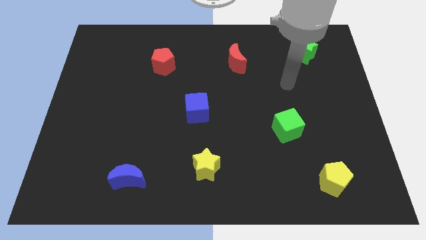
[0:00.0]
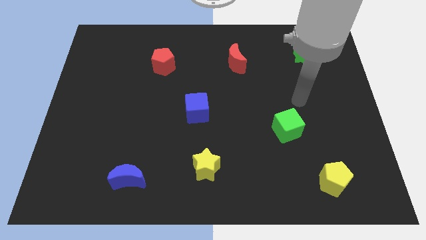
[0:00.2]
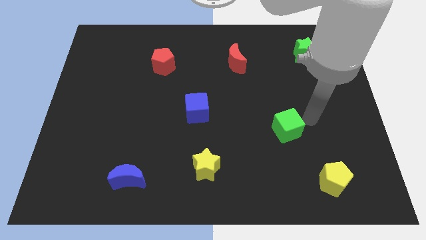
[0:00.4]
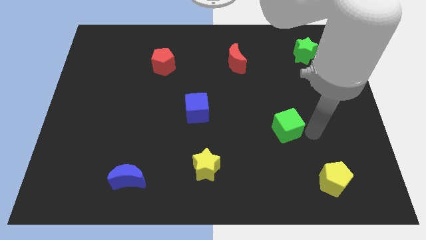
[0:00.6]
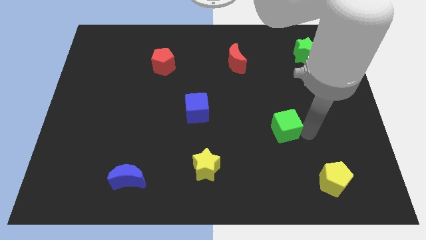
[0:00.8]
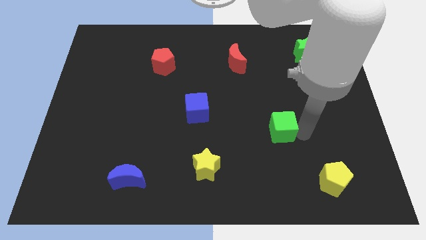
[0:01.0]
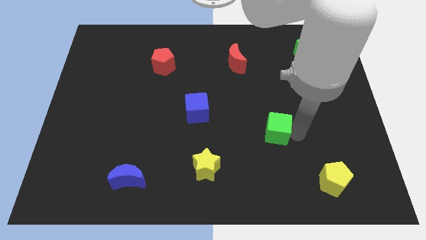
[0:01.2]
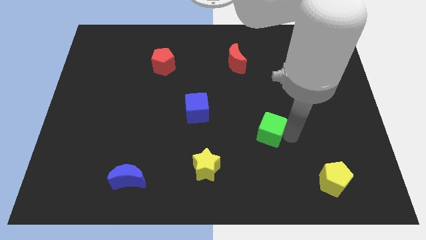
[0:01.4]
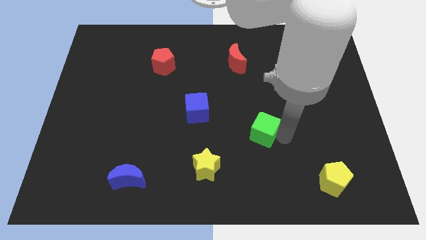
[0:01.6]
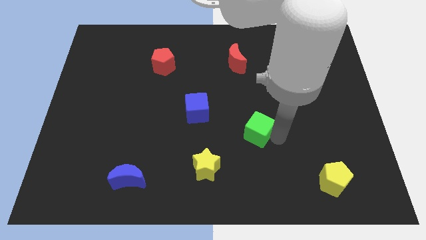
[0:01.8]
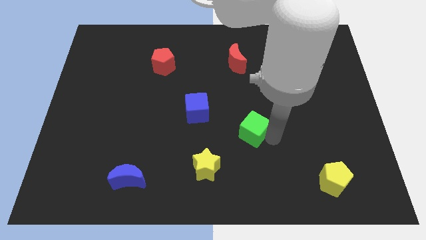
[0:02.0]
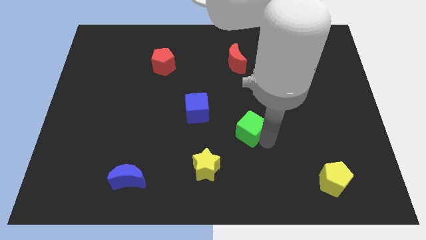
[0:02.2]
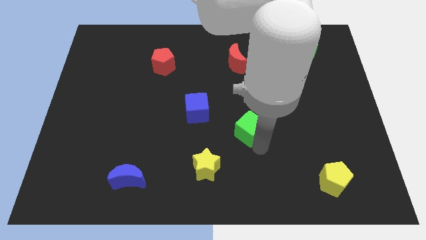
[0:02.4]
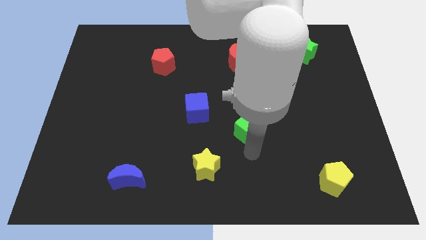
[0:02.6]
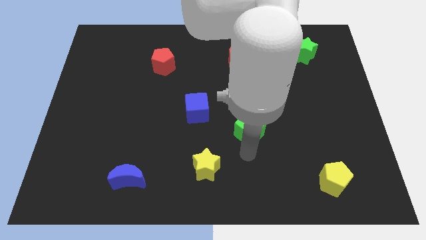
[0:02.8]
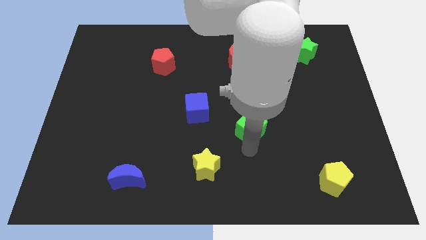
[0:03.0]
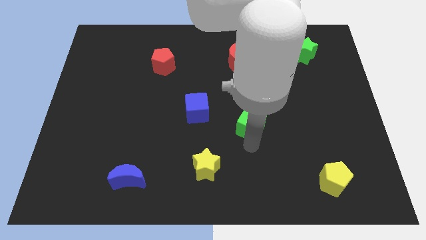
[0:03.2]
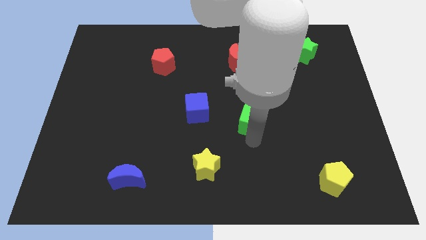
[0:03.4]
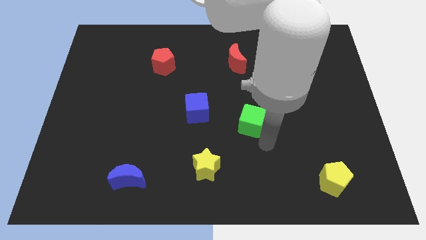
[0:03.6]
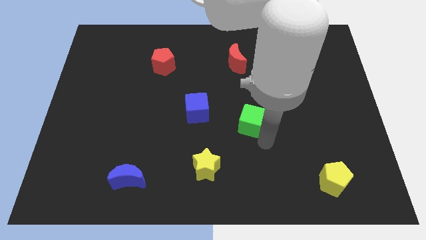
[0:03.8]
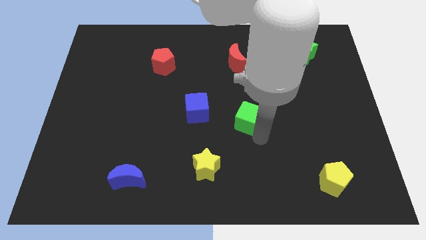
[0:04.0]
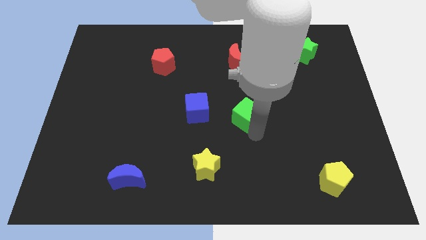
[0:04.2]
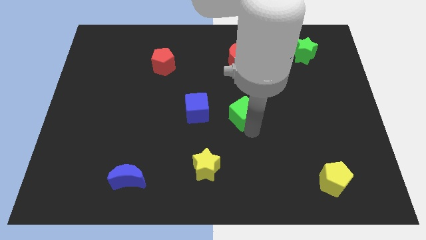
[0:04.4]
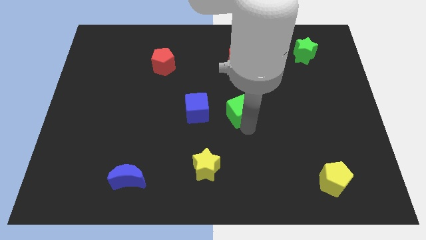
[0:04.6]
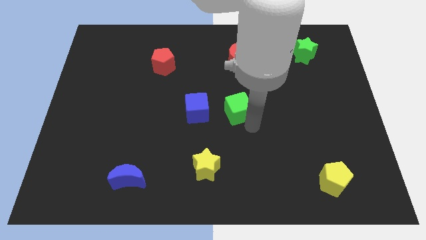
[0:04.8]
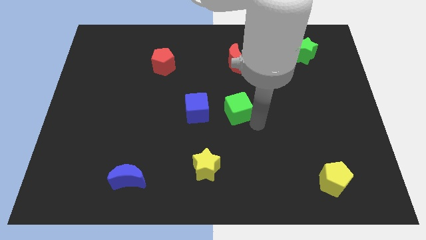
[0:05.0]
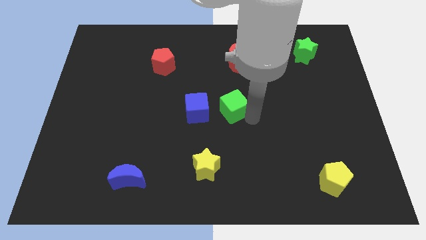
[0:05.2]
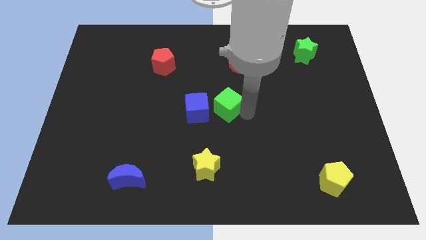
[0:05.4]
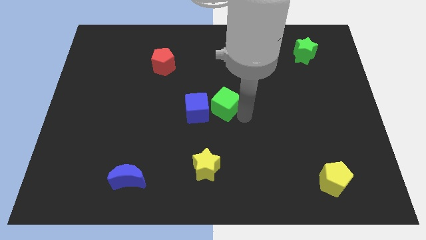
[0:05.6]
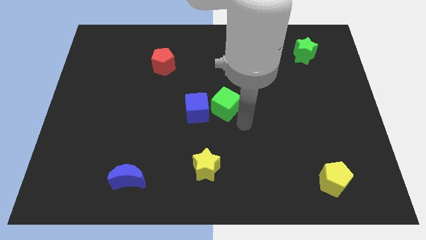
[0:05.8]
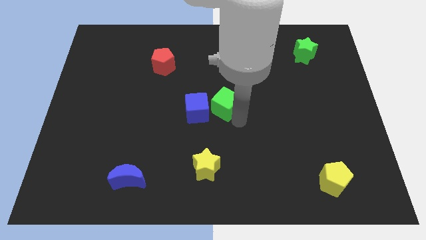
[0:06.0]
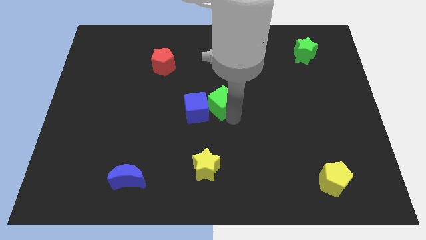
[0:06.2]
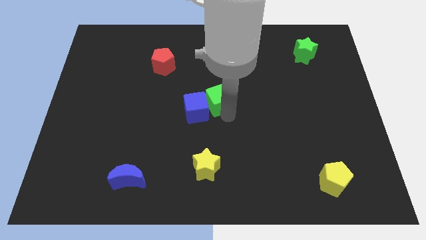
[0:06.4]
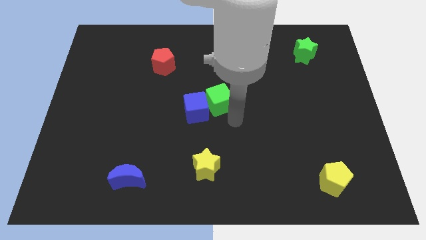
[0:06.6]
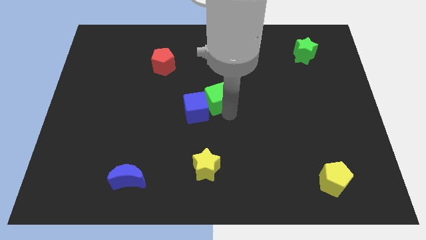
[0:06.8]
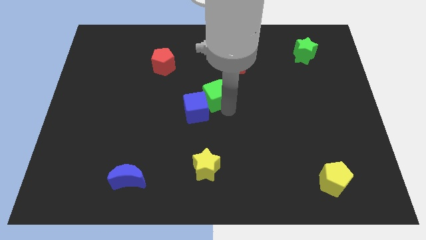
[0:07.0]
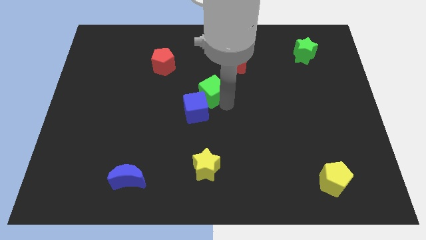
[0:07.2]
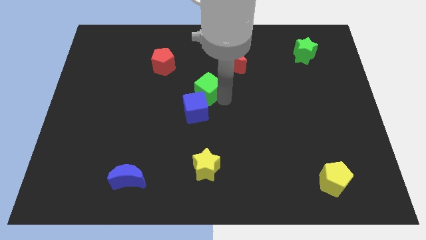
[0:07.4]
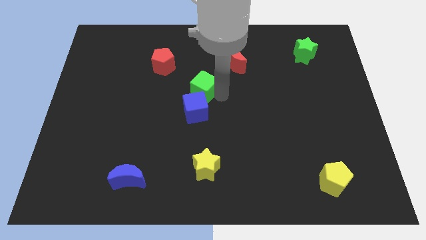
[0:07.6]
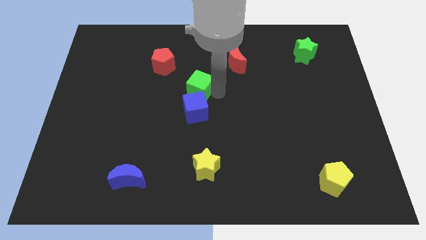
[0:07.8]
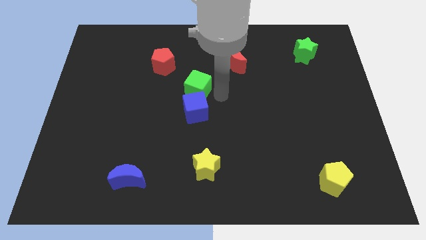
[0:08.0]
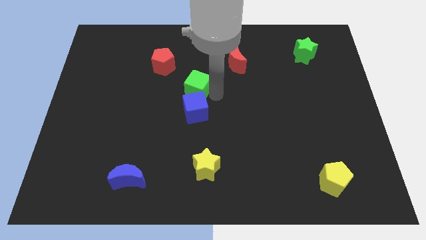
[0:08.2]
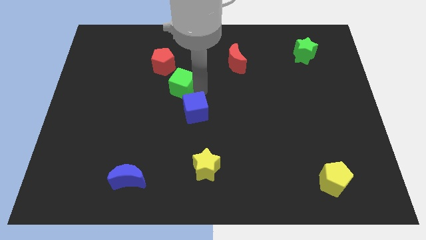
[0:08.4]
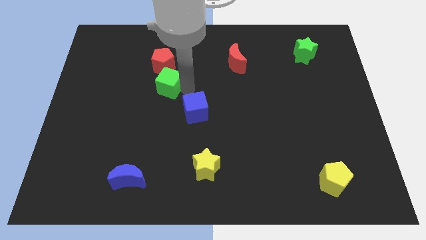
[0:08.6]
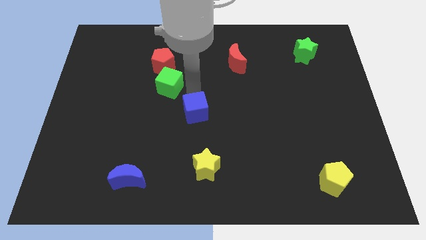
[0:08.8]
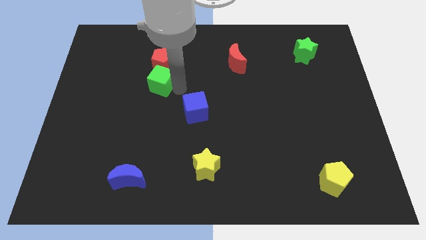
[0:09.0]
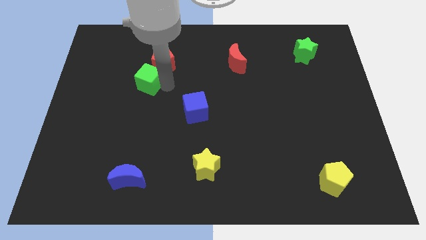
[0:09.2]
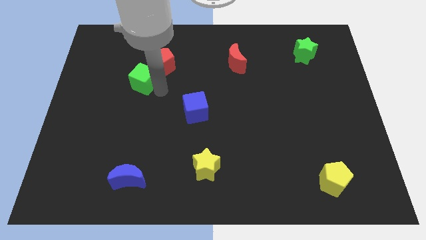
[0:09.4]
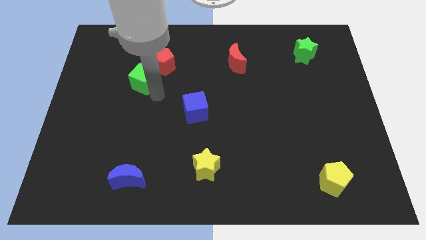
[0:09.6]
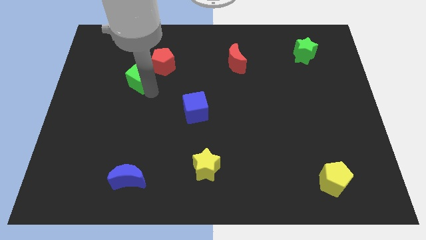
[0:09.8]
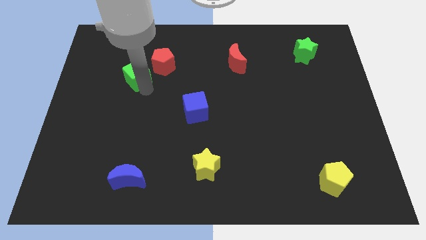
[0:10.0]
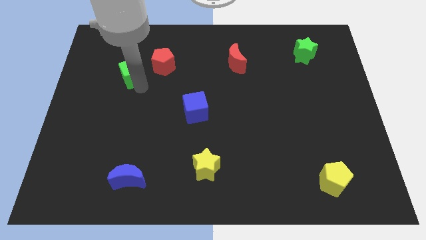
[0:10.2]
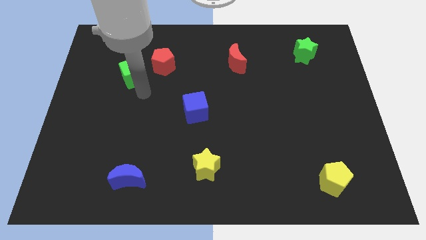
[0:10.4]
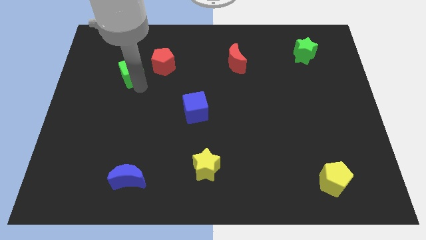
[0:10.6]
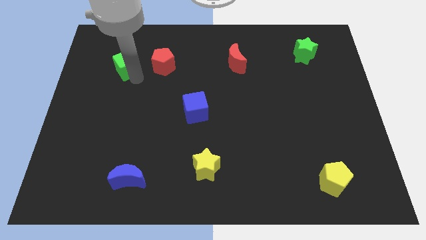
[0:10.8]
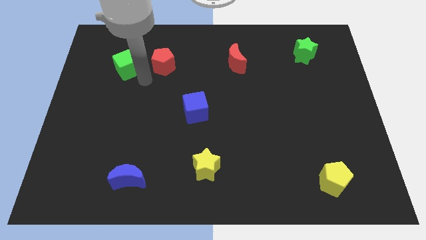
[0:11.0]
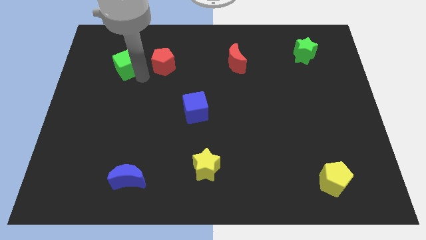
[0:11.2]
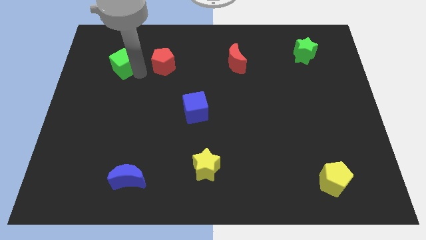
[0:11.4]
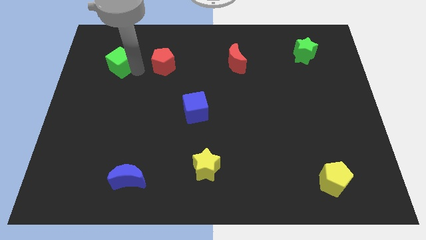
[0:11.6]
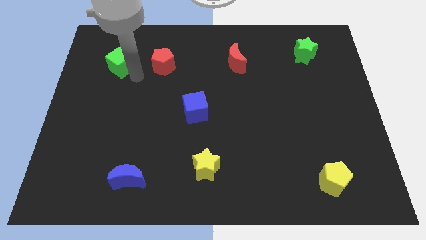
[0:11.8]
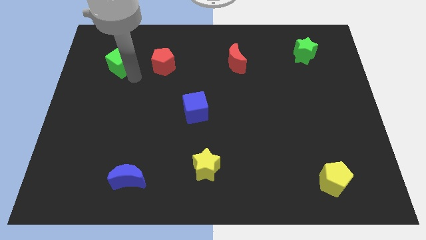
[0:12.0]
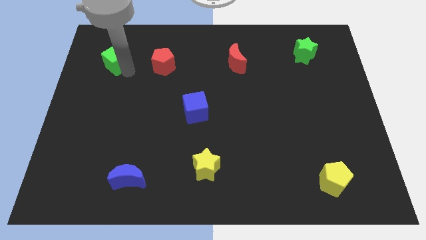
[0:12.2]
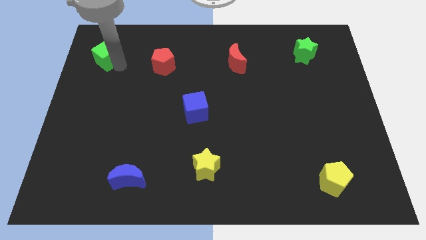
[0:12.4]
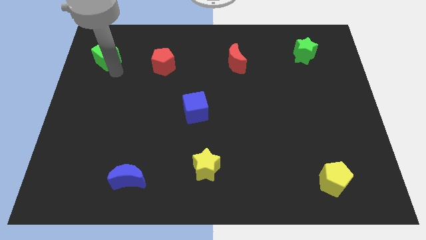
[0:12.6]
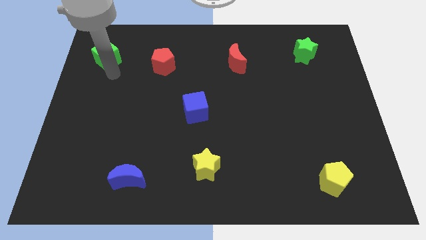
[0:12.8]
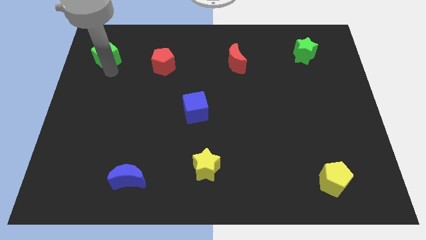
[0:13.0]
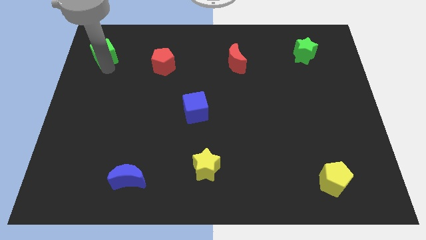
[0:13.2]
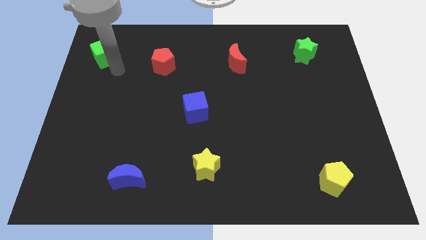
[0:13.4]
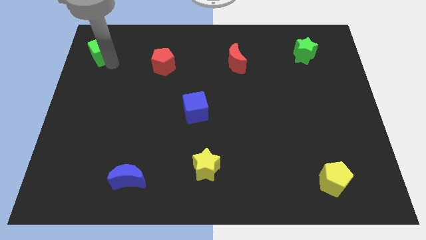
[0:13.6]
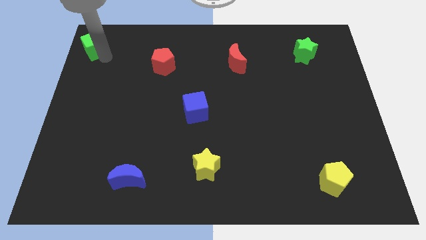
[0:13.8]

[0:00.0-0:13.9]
move the green cube to the top left
